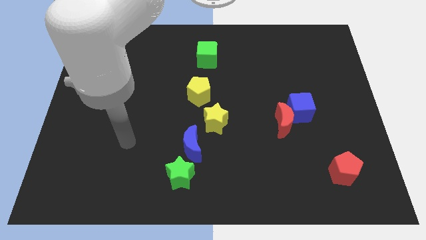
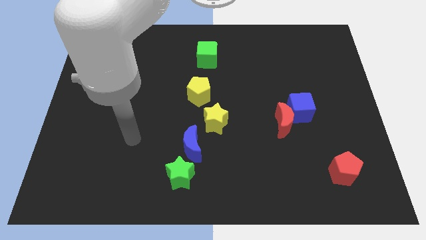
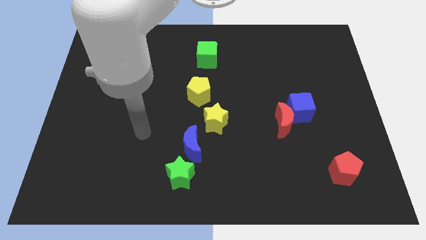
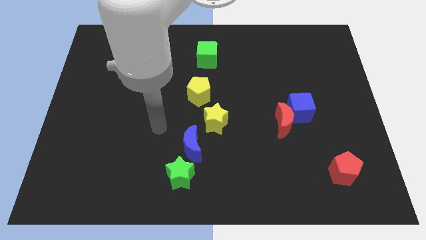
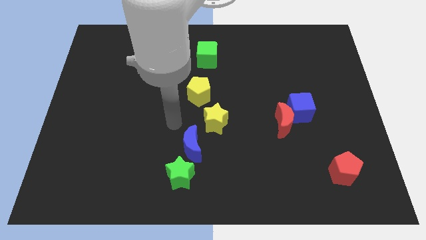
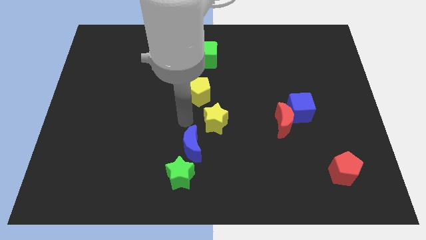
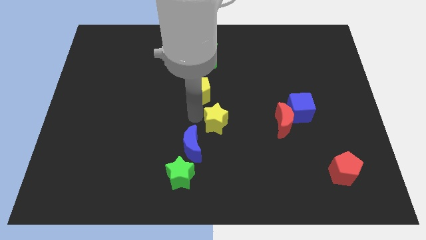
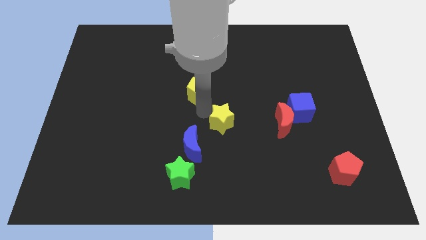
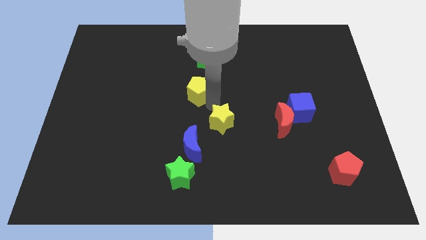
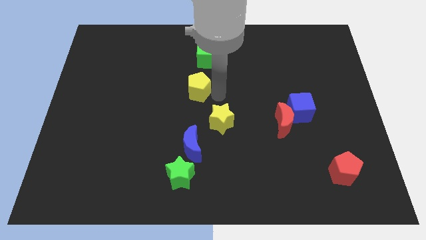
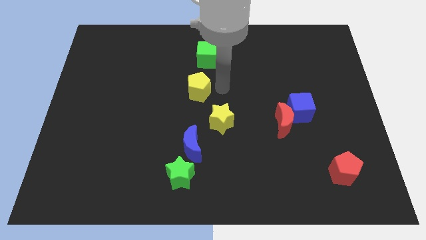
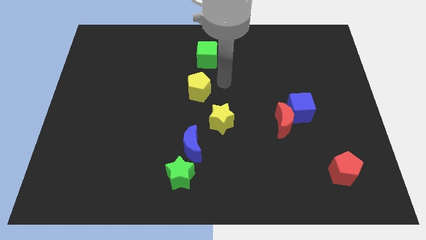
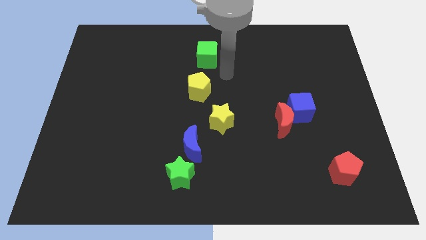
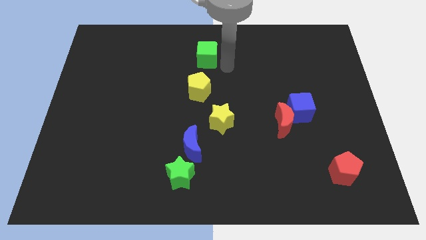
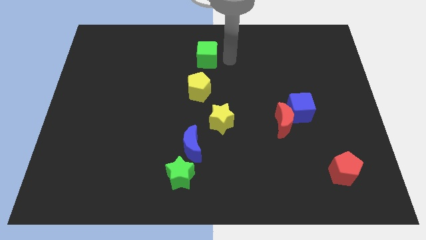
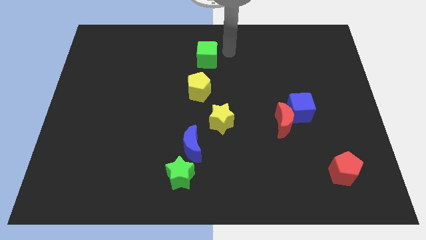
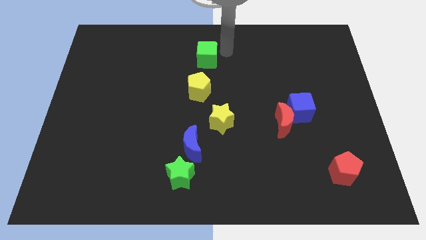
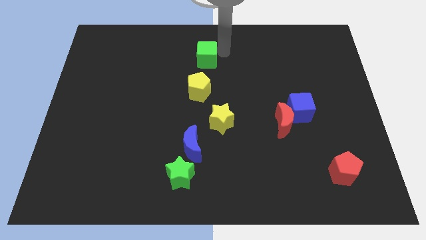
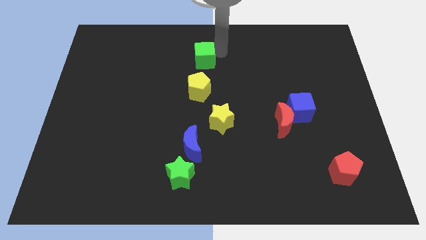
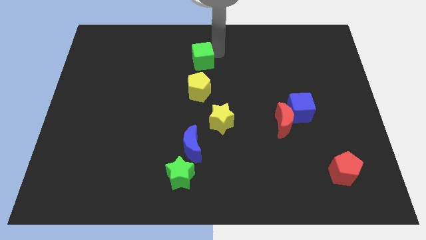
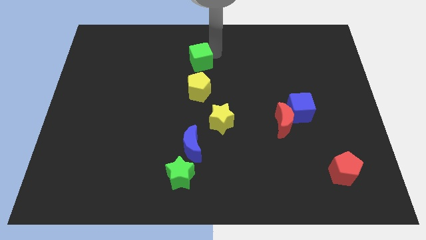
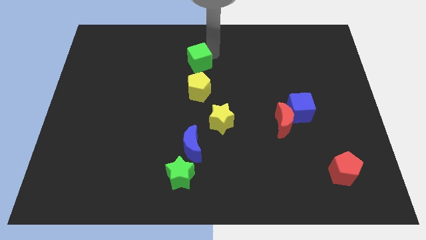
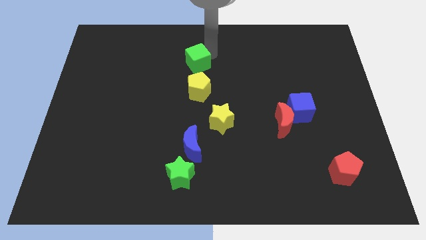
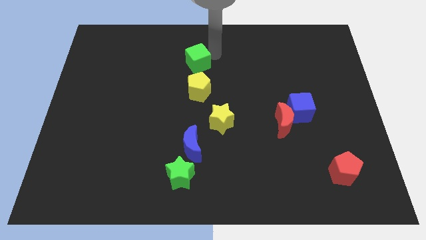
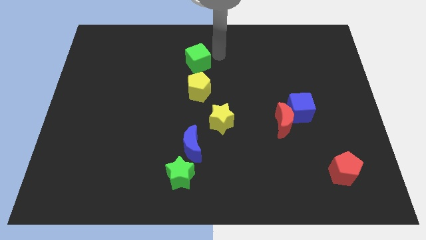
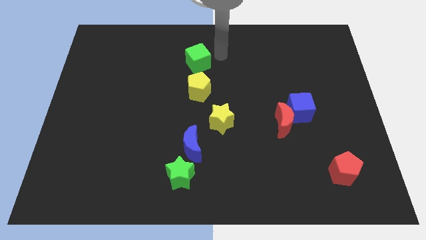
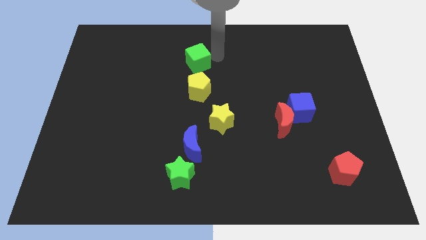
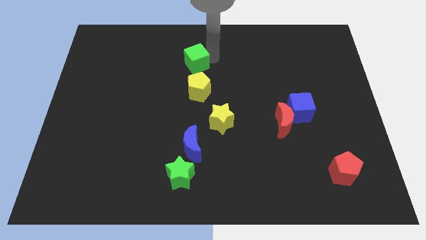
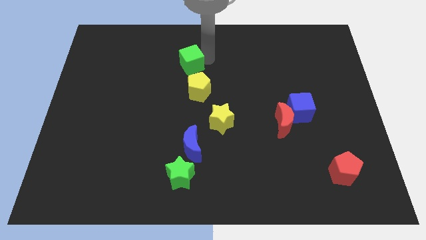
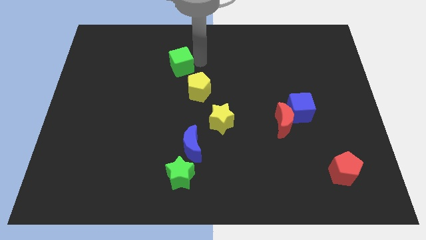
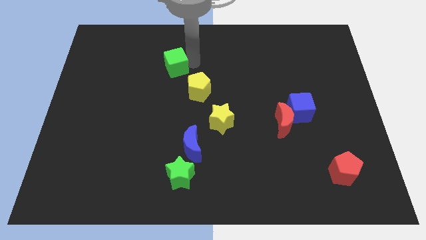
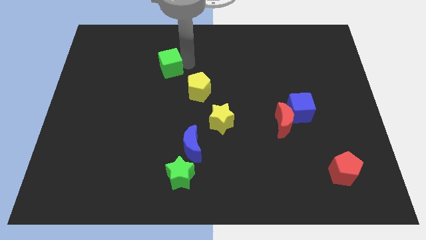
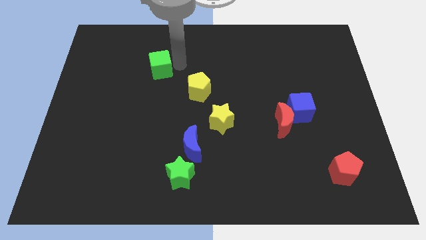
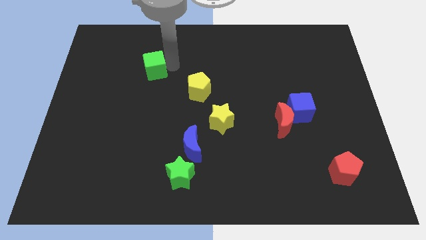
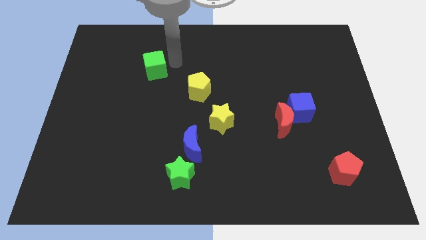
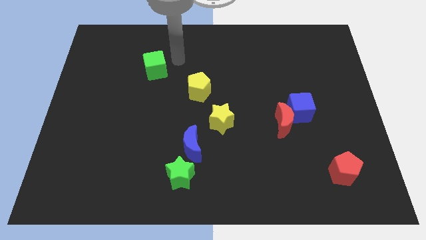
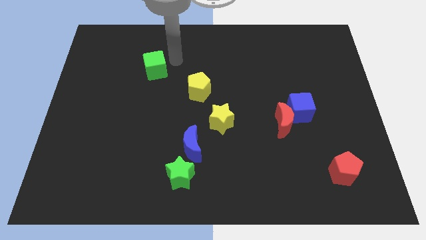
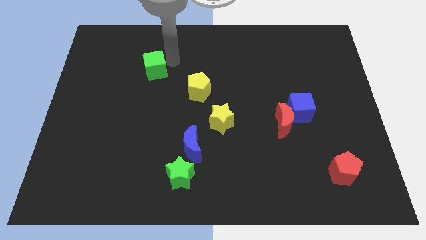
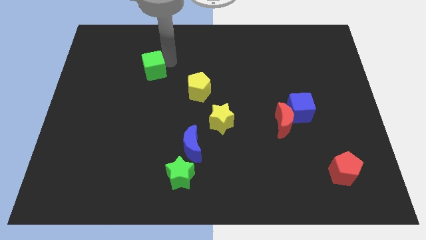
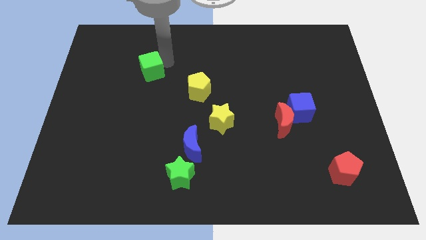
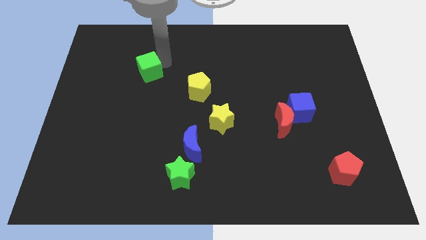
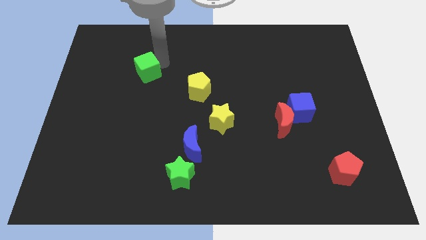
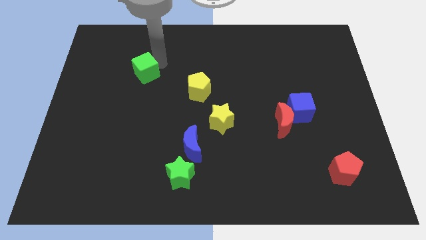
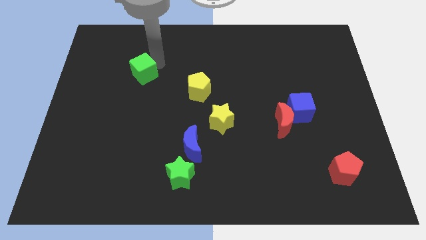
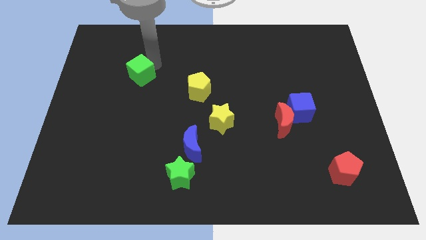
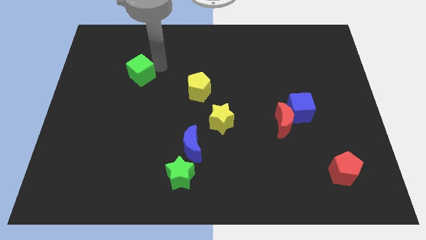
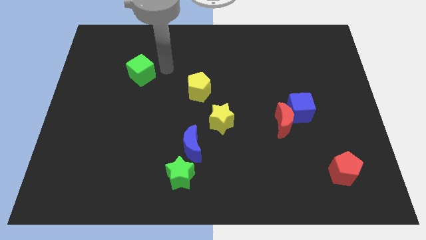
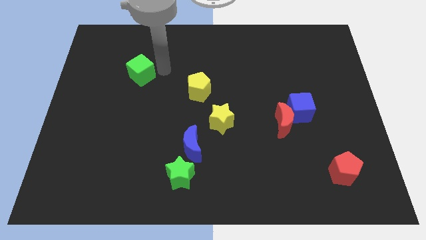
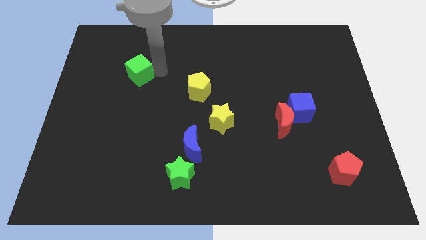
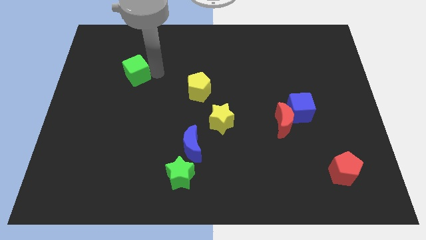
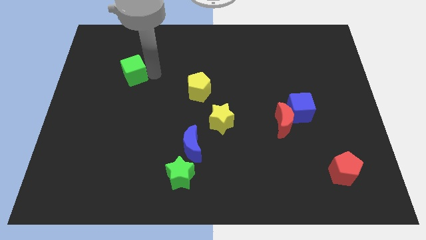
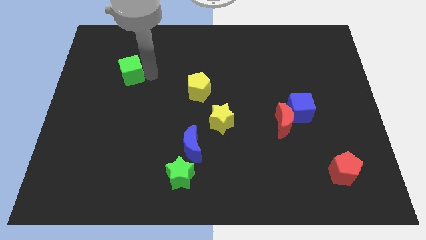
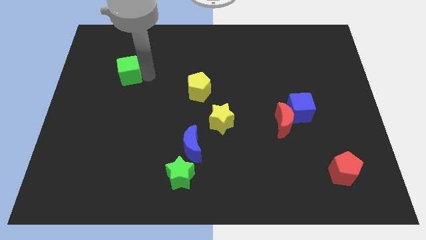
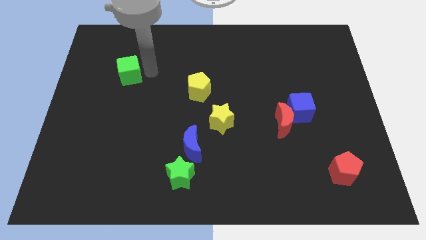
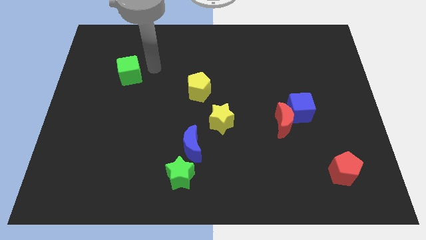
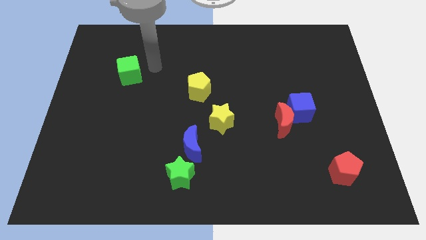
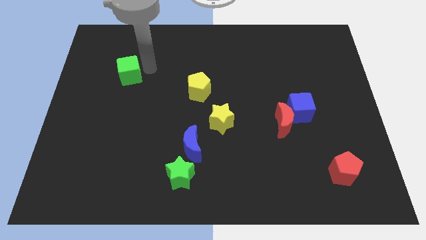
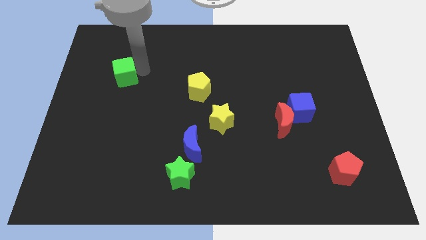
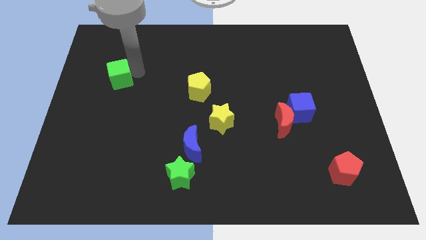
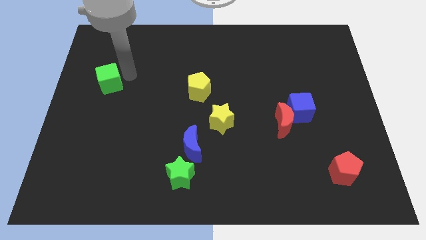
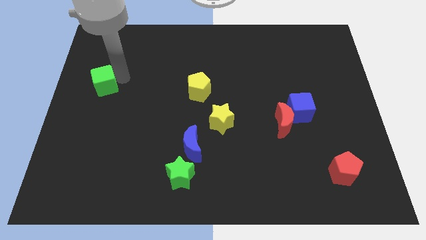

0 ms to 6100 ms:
slide the green cube to the left side of the board
